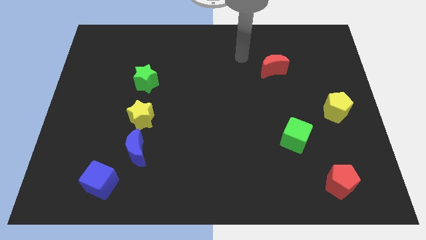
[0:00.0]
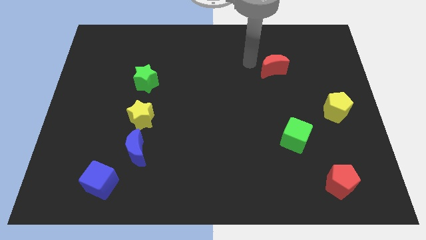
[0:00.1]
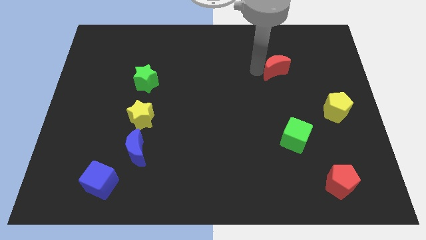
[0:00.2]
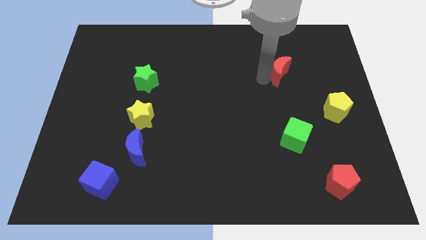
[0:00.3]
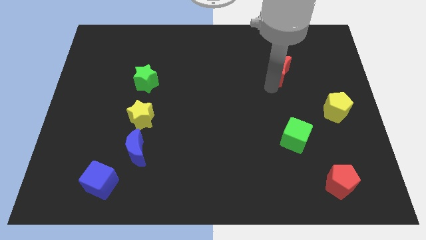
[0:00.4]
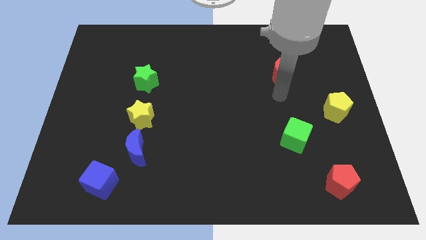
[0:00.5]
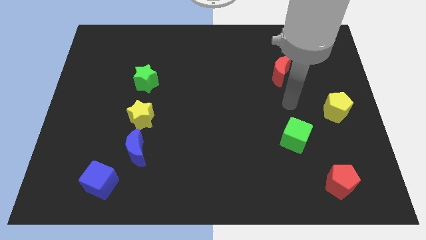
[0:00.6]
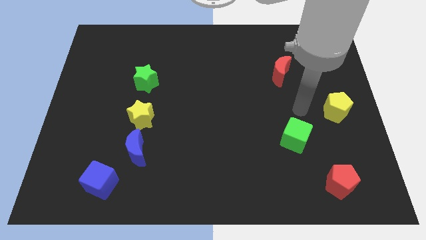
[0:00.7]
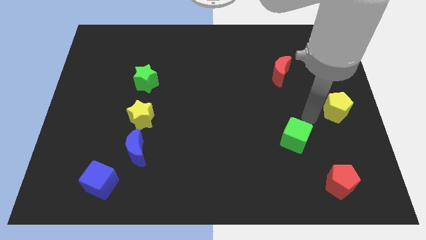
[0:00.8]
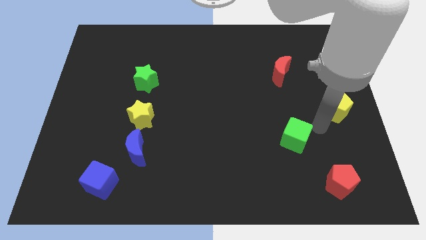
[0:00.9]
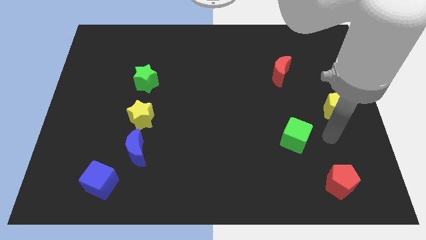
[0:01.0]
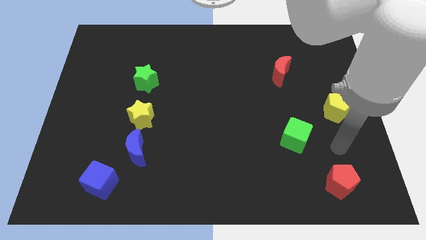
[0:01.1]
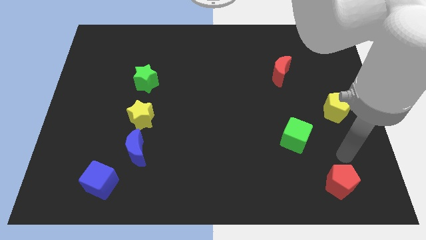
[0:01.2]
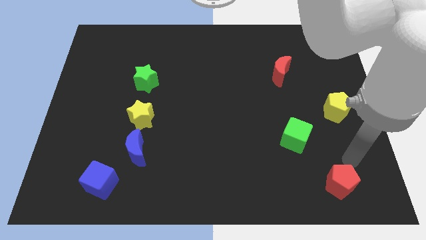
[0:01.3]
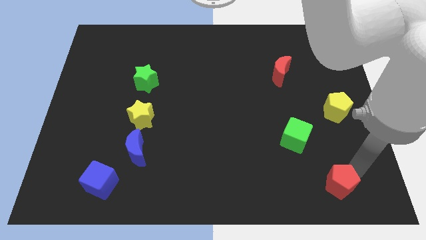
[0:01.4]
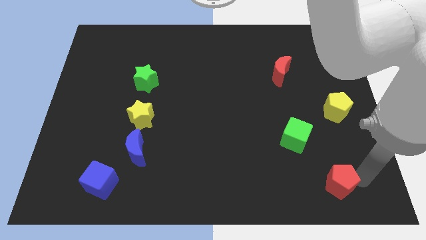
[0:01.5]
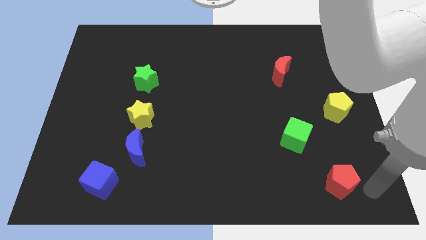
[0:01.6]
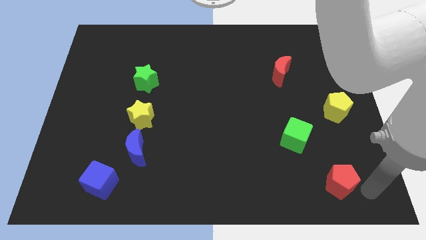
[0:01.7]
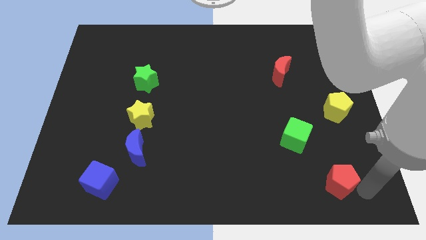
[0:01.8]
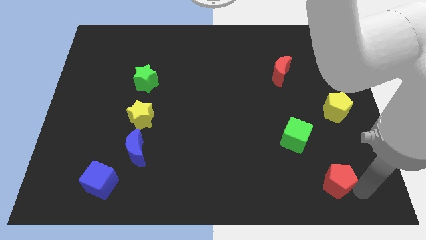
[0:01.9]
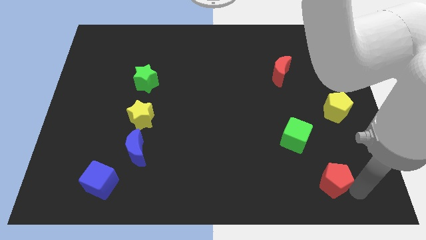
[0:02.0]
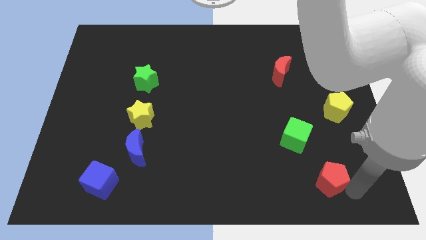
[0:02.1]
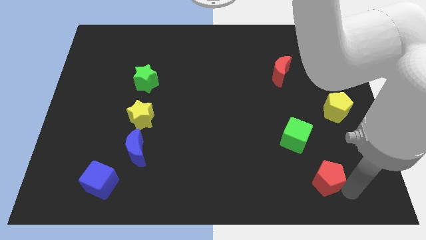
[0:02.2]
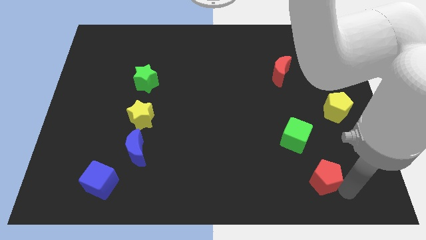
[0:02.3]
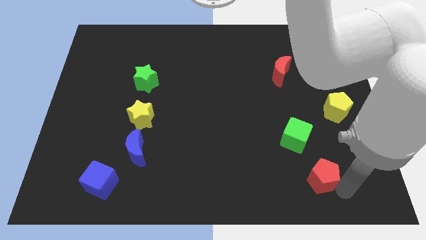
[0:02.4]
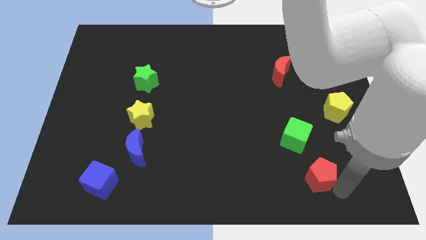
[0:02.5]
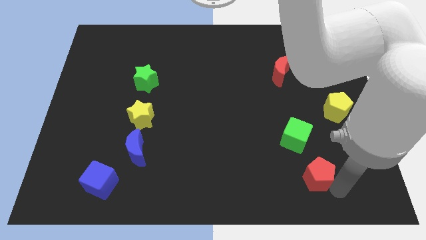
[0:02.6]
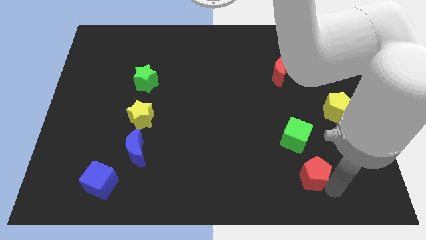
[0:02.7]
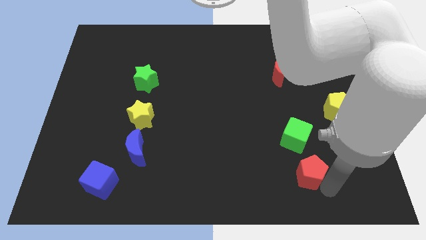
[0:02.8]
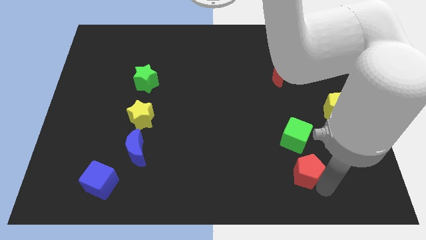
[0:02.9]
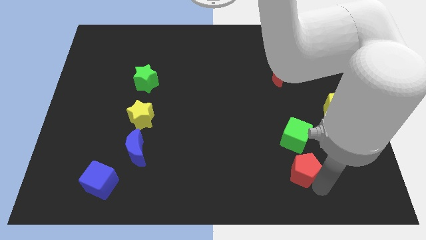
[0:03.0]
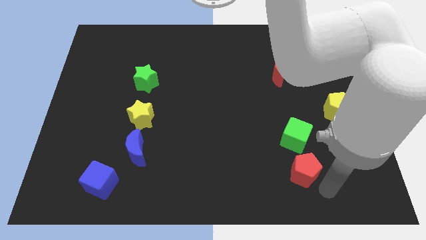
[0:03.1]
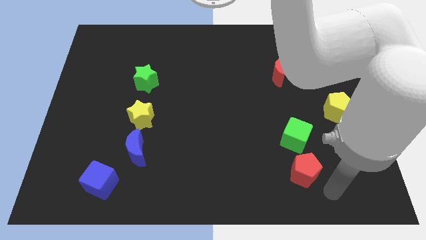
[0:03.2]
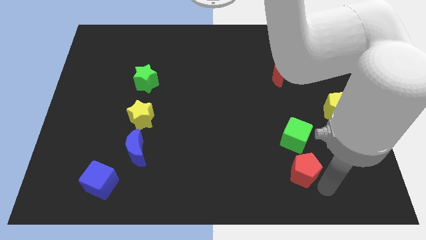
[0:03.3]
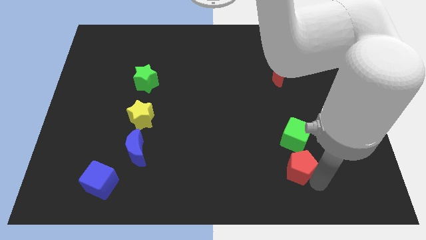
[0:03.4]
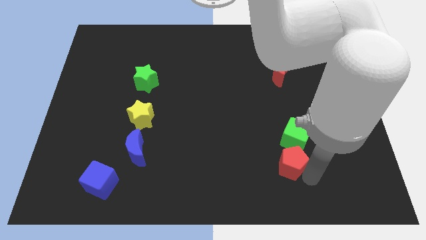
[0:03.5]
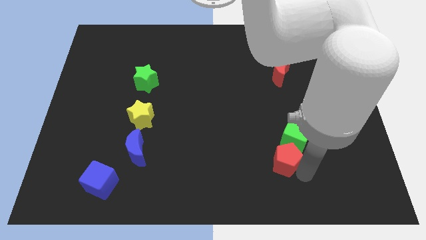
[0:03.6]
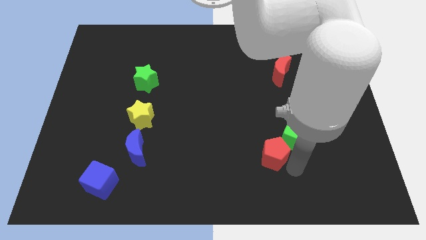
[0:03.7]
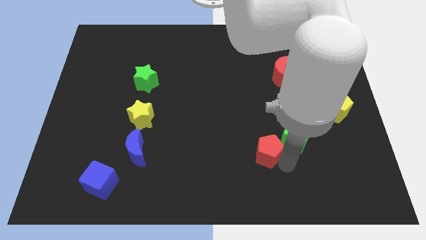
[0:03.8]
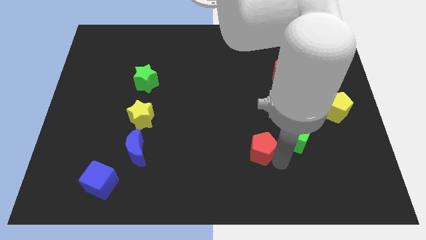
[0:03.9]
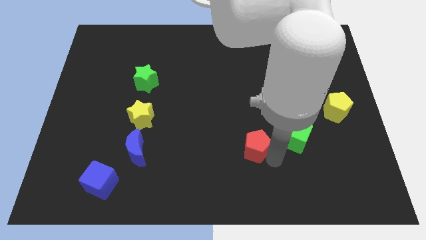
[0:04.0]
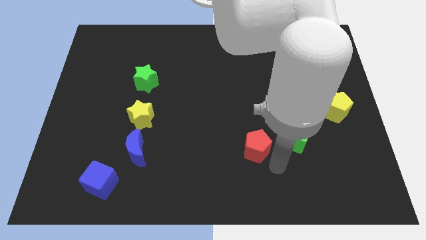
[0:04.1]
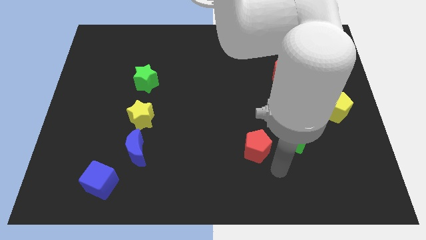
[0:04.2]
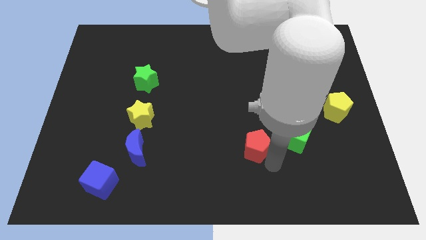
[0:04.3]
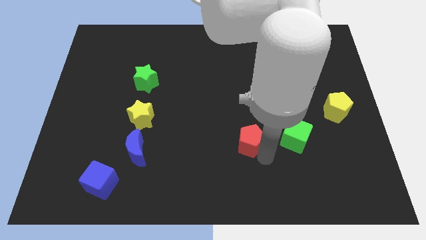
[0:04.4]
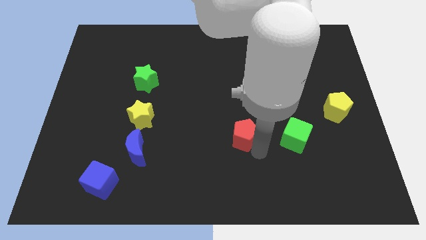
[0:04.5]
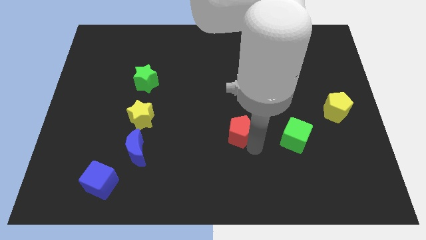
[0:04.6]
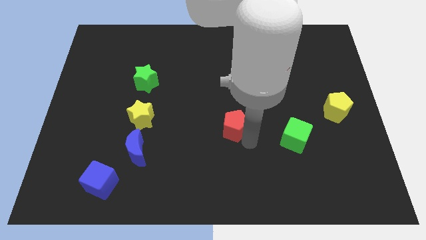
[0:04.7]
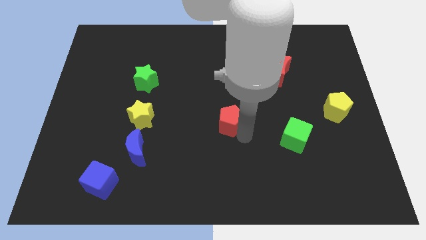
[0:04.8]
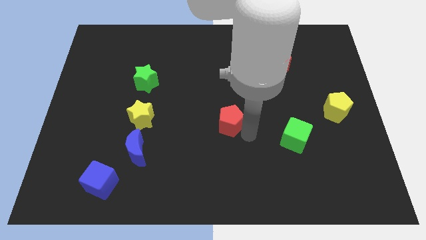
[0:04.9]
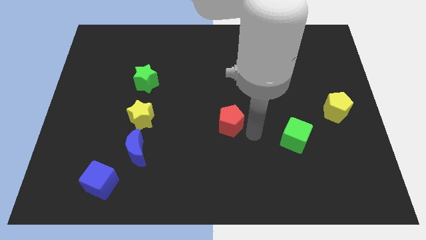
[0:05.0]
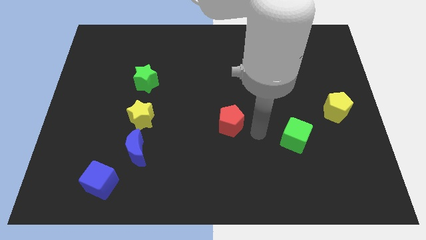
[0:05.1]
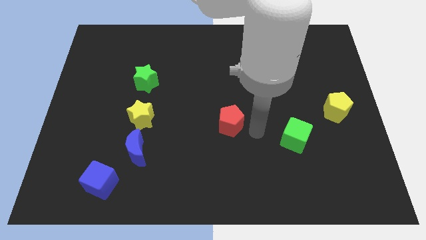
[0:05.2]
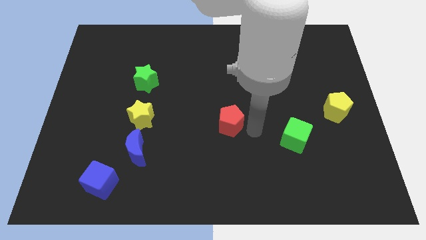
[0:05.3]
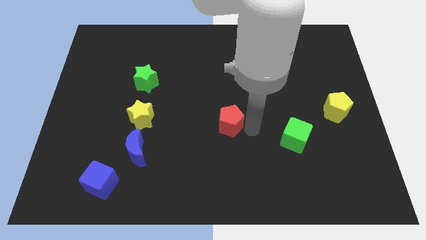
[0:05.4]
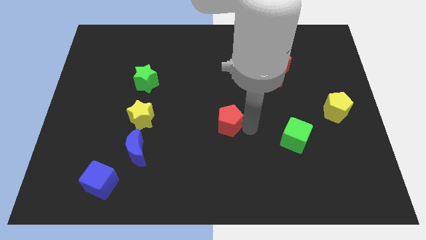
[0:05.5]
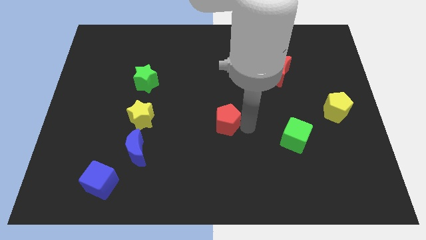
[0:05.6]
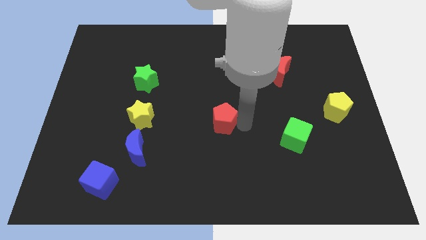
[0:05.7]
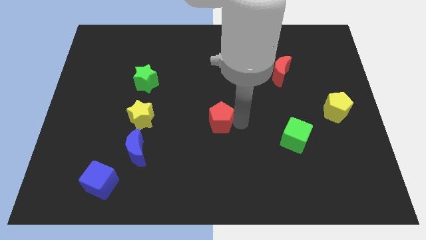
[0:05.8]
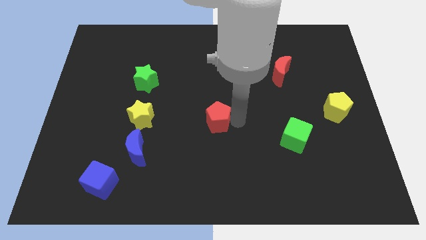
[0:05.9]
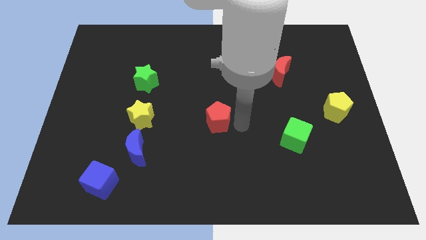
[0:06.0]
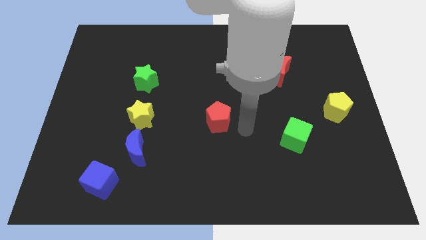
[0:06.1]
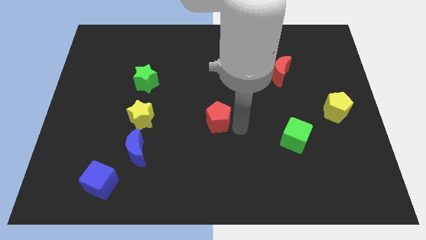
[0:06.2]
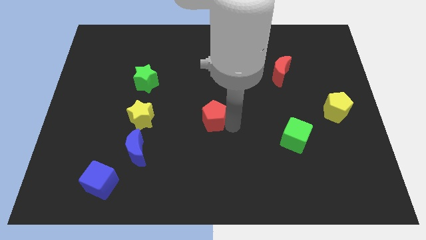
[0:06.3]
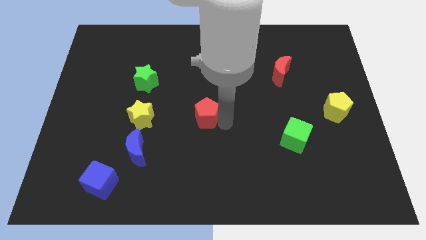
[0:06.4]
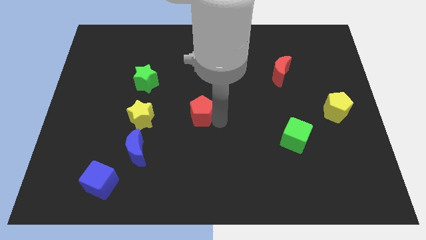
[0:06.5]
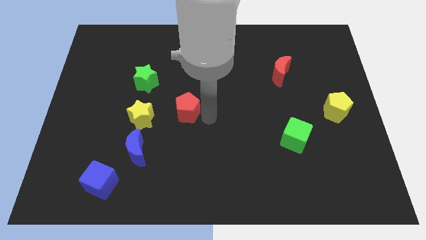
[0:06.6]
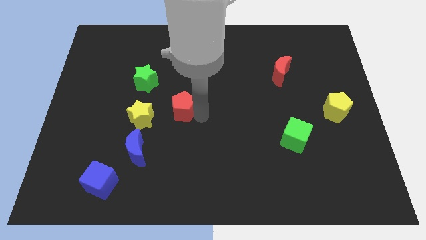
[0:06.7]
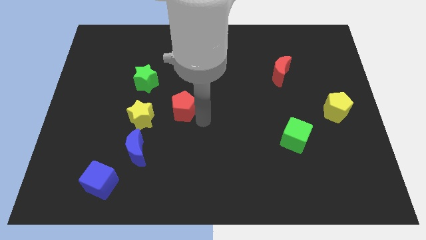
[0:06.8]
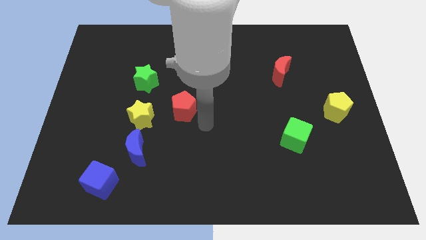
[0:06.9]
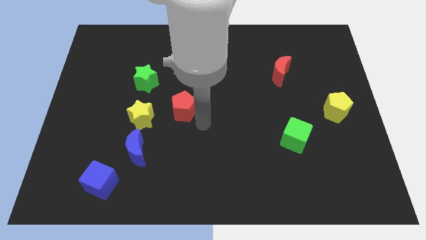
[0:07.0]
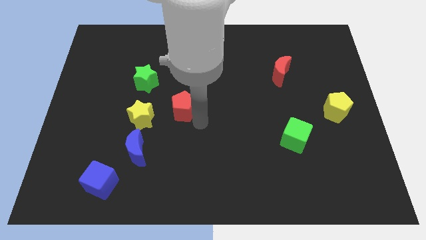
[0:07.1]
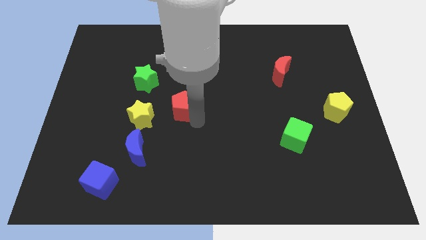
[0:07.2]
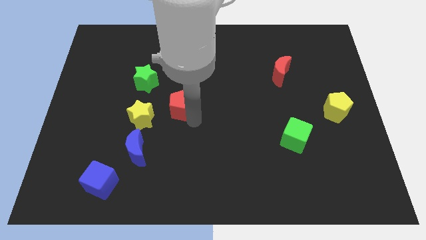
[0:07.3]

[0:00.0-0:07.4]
move the red pentagon to the bottom right side of the green star

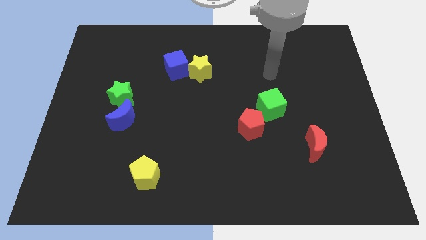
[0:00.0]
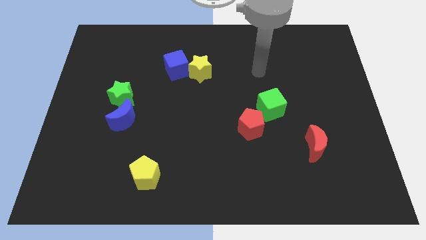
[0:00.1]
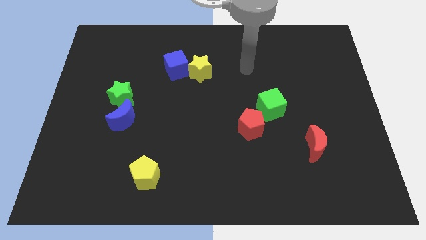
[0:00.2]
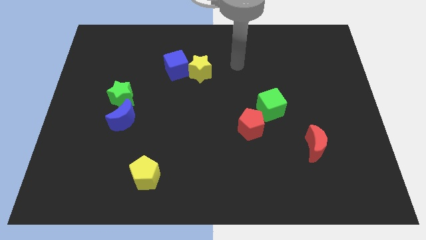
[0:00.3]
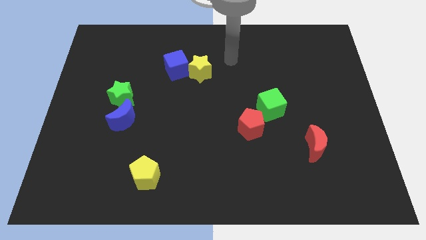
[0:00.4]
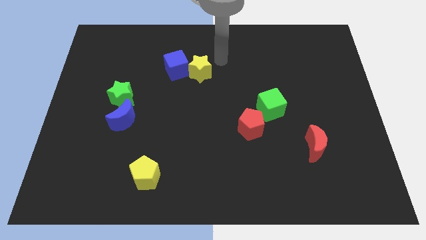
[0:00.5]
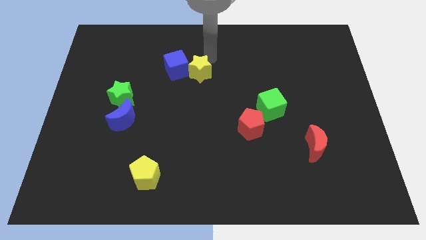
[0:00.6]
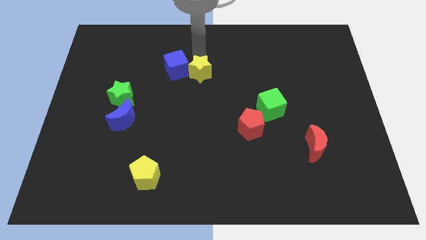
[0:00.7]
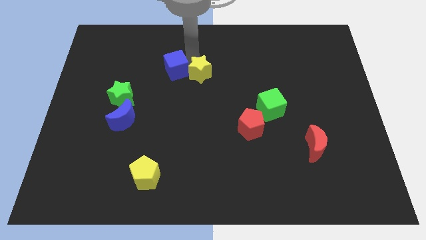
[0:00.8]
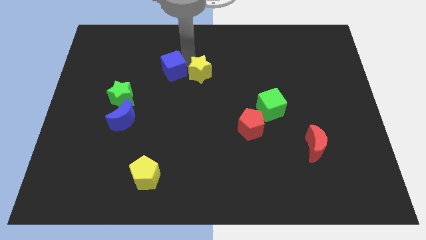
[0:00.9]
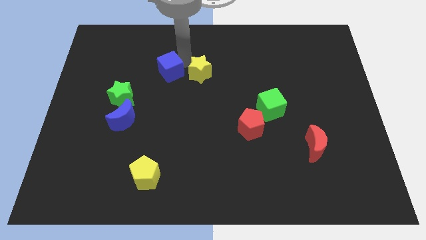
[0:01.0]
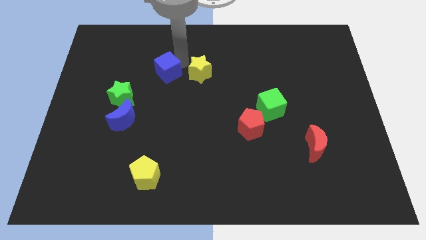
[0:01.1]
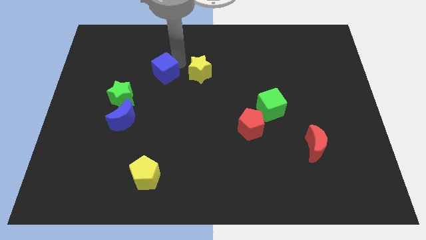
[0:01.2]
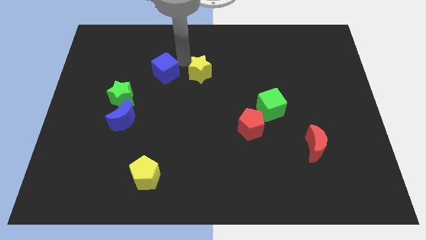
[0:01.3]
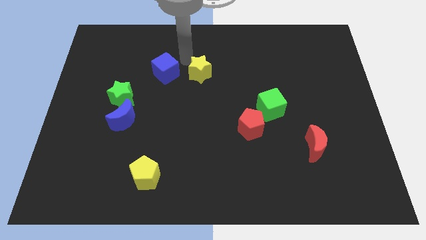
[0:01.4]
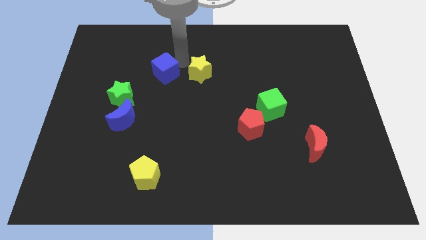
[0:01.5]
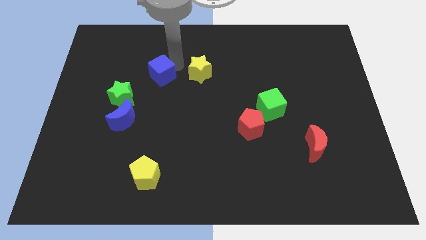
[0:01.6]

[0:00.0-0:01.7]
move the blue cube diagonally up and to the right of the green star
